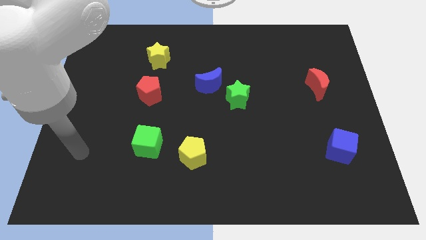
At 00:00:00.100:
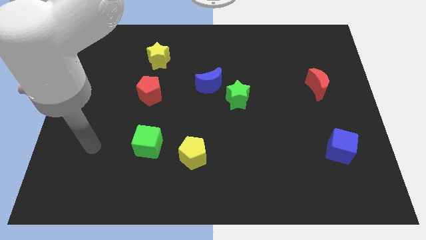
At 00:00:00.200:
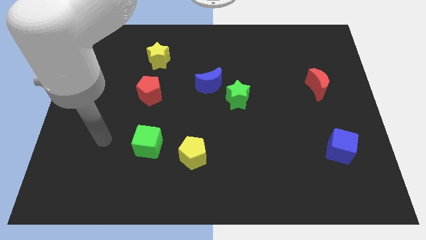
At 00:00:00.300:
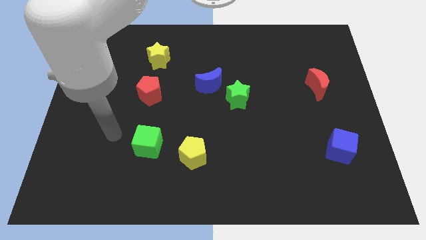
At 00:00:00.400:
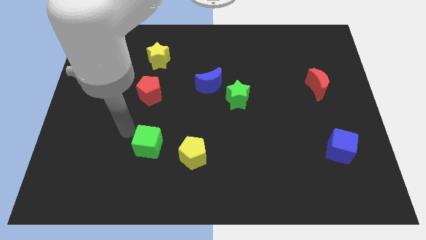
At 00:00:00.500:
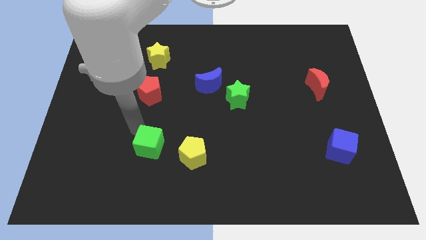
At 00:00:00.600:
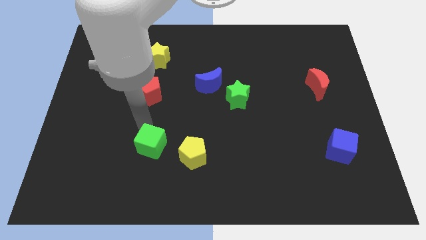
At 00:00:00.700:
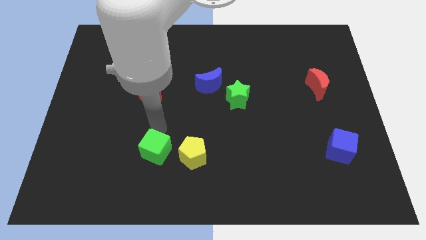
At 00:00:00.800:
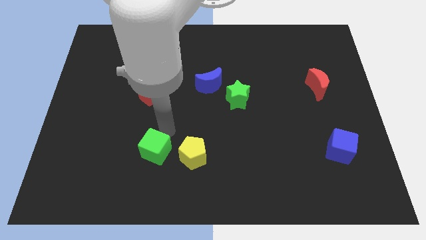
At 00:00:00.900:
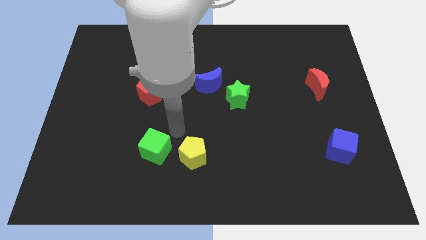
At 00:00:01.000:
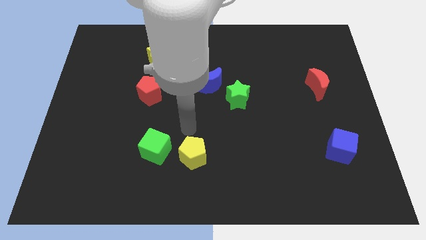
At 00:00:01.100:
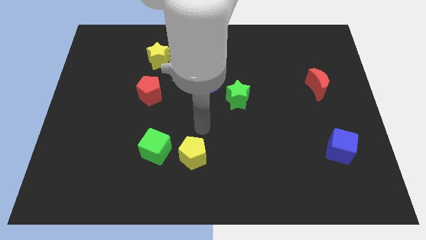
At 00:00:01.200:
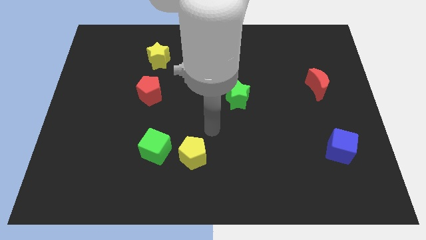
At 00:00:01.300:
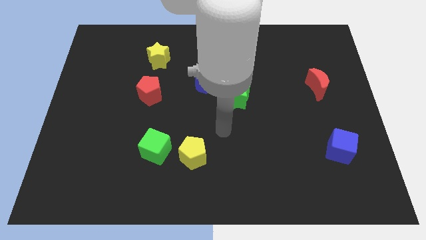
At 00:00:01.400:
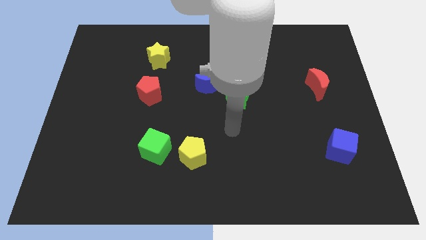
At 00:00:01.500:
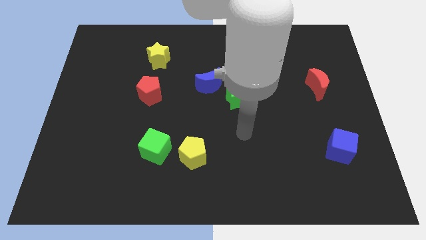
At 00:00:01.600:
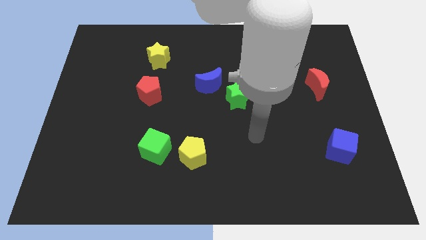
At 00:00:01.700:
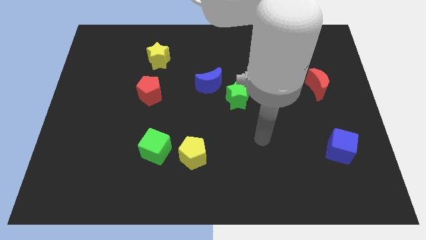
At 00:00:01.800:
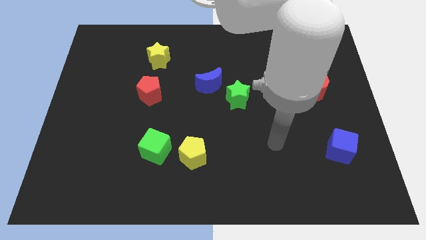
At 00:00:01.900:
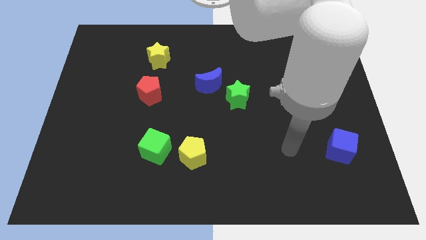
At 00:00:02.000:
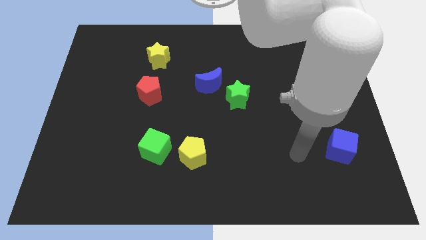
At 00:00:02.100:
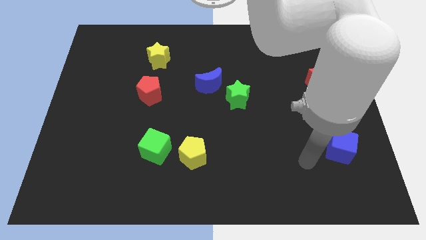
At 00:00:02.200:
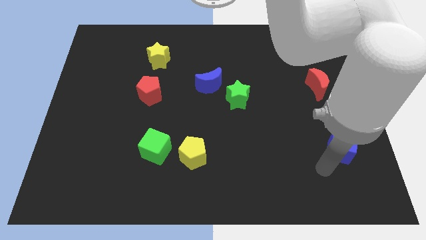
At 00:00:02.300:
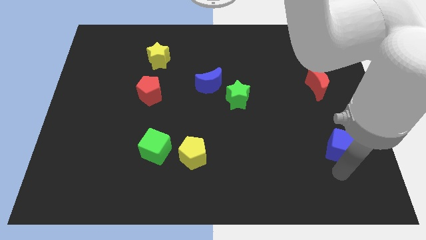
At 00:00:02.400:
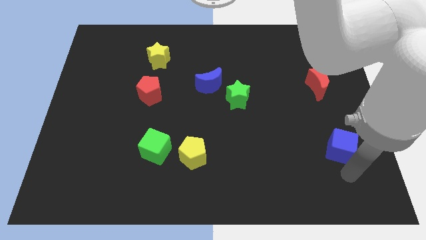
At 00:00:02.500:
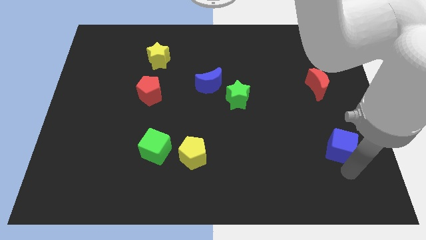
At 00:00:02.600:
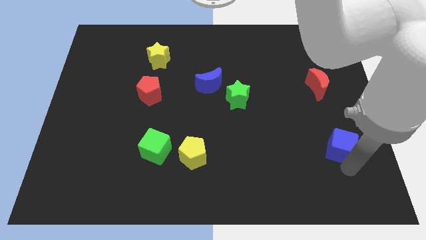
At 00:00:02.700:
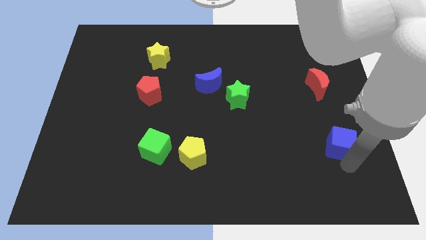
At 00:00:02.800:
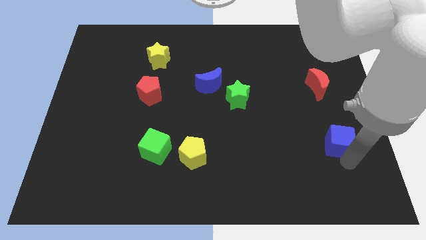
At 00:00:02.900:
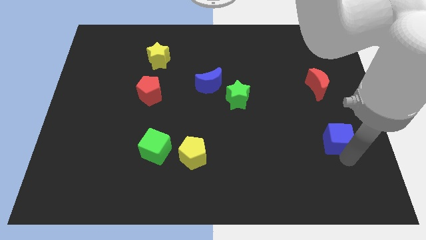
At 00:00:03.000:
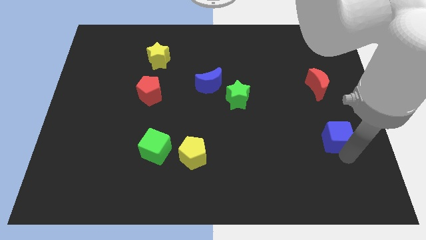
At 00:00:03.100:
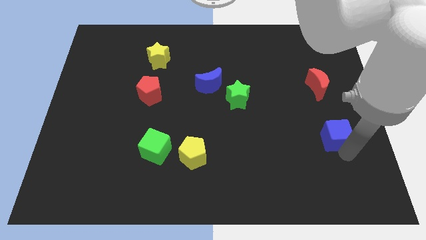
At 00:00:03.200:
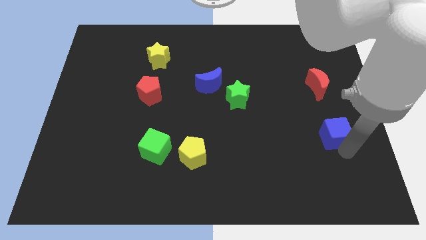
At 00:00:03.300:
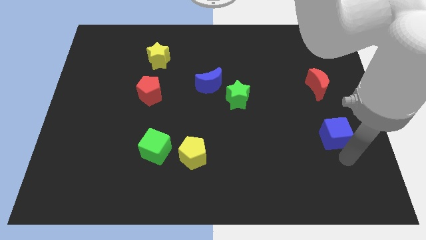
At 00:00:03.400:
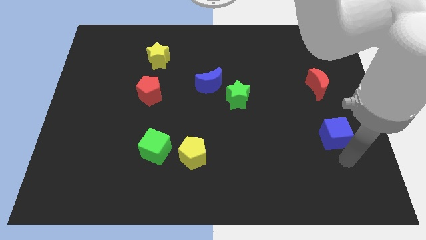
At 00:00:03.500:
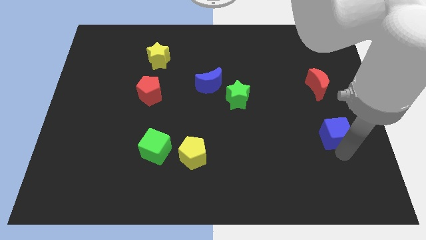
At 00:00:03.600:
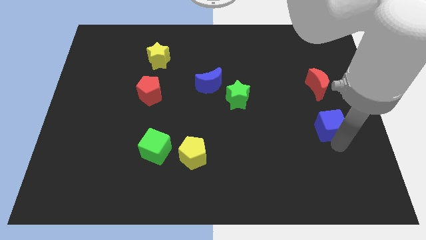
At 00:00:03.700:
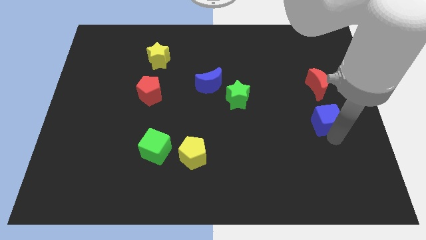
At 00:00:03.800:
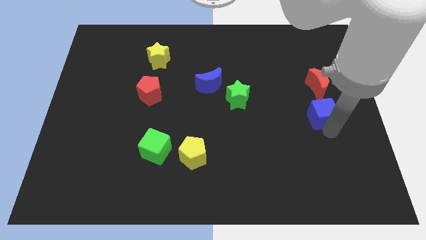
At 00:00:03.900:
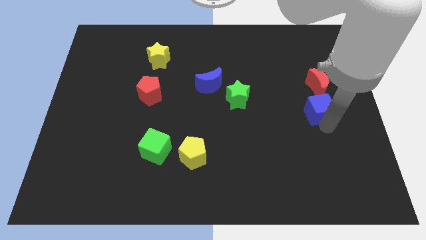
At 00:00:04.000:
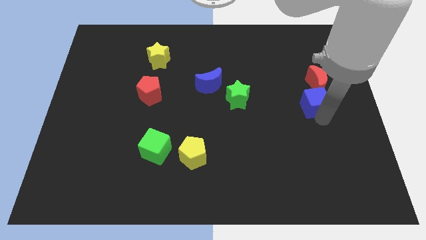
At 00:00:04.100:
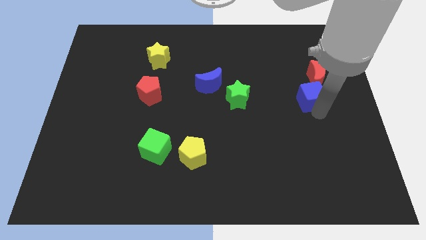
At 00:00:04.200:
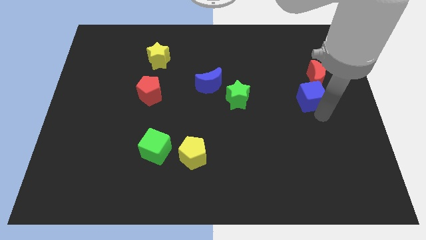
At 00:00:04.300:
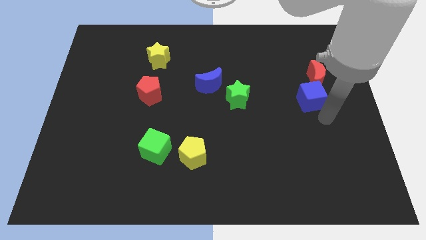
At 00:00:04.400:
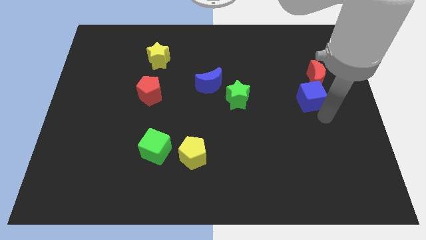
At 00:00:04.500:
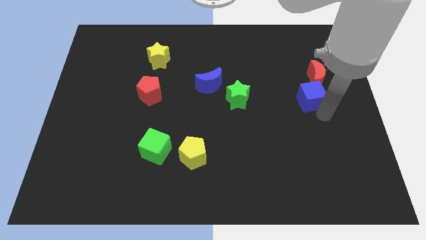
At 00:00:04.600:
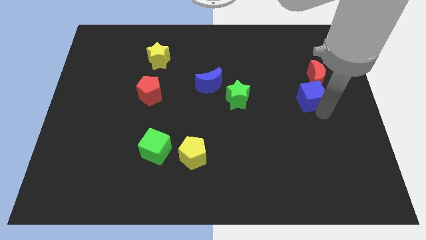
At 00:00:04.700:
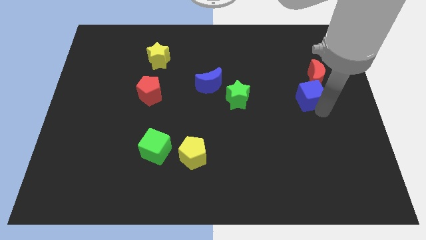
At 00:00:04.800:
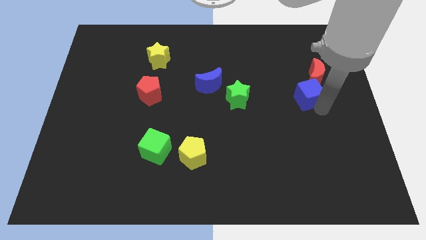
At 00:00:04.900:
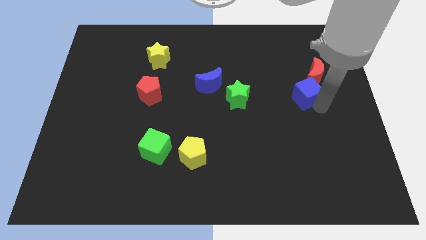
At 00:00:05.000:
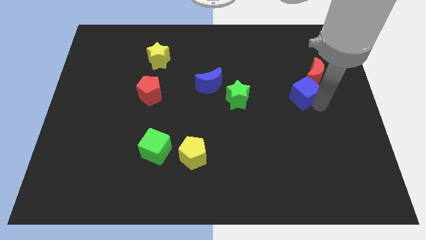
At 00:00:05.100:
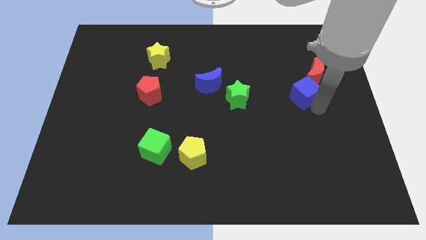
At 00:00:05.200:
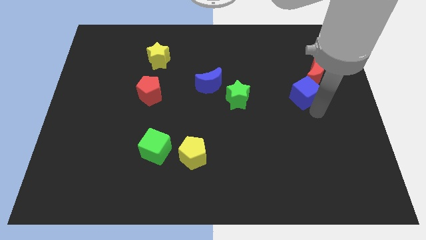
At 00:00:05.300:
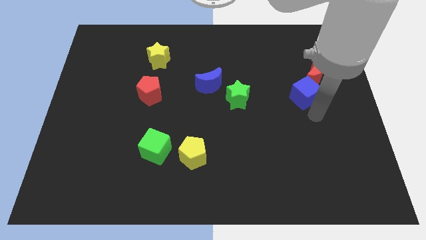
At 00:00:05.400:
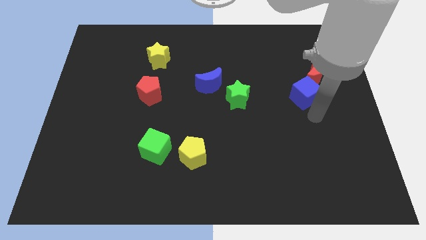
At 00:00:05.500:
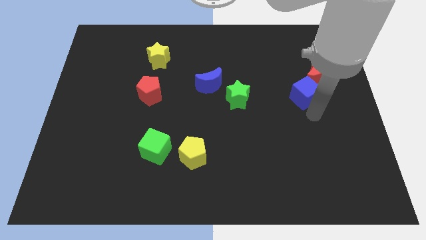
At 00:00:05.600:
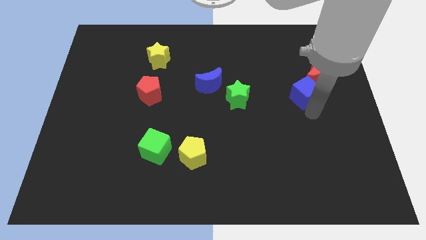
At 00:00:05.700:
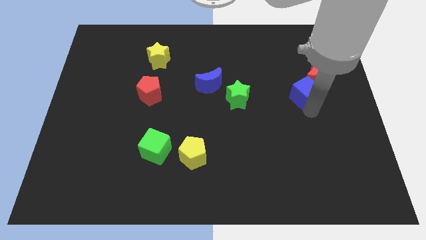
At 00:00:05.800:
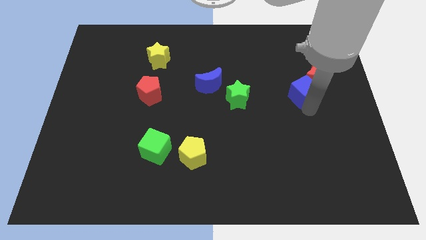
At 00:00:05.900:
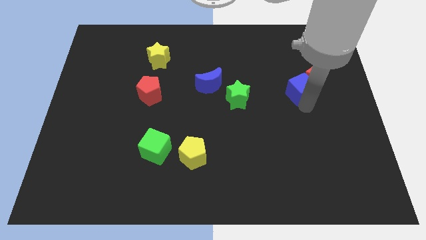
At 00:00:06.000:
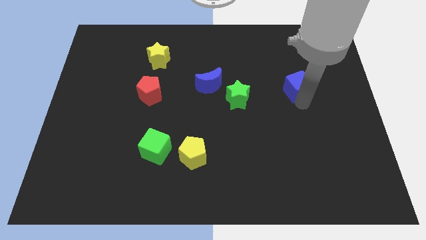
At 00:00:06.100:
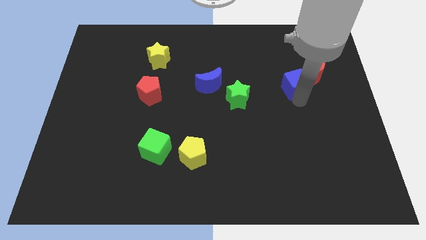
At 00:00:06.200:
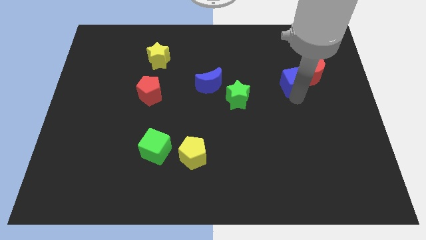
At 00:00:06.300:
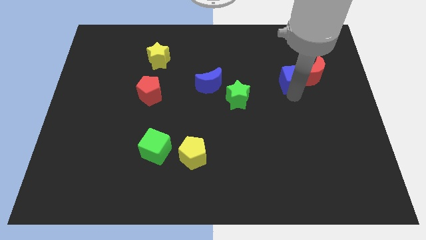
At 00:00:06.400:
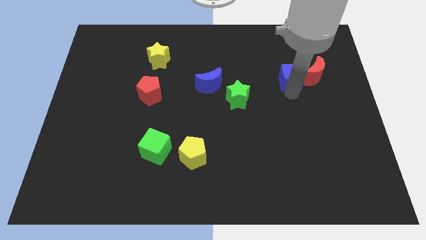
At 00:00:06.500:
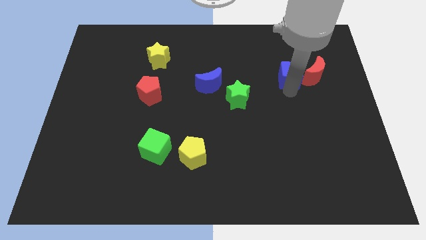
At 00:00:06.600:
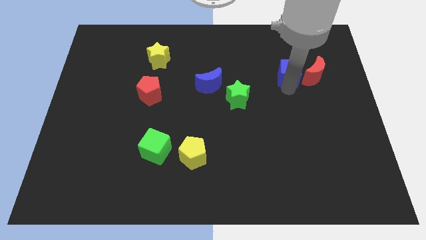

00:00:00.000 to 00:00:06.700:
slide the blue cube diagonally up and to the left of the red moon

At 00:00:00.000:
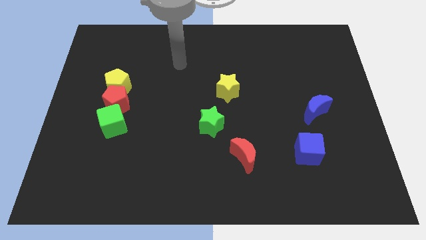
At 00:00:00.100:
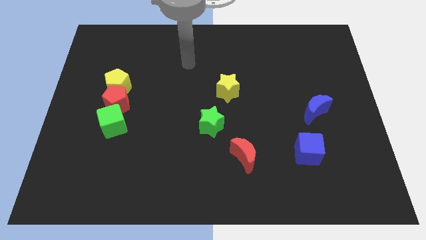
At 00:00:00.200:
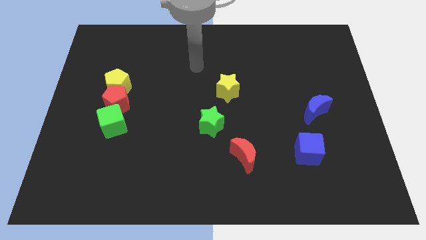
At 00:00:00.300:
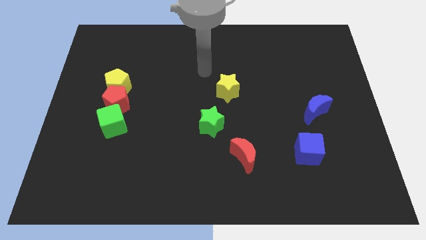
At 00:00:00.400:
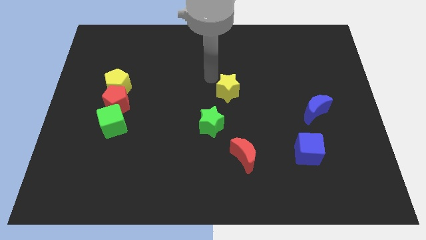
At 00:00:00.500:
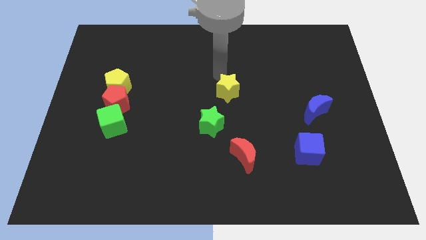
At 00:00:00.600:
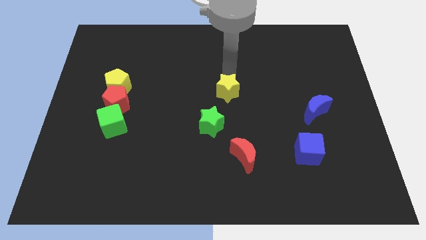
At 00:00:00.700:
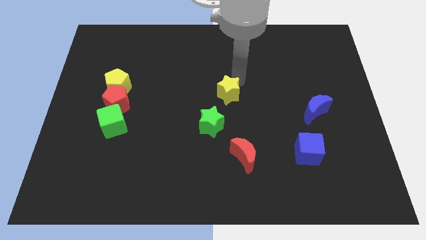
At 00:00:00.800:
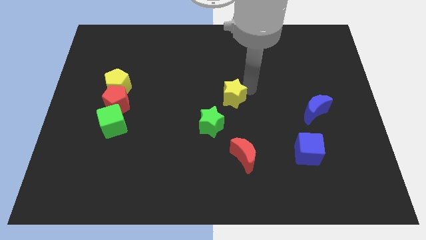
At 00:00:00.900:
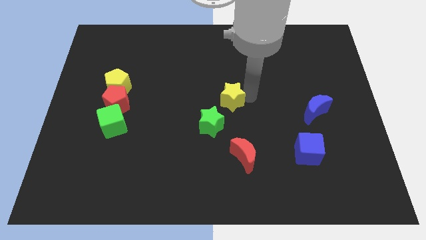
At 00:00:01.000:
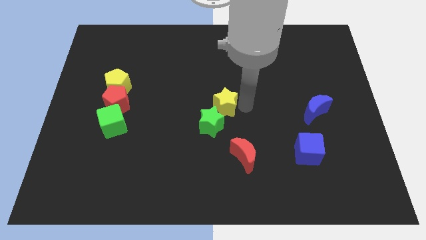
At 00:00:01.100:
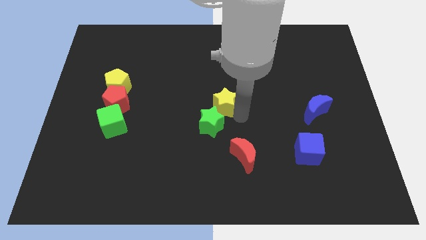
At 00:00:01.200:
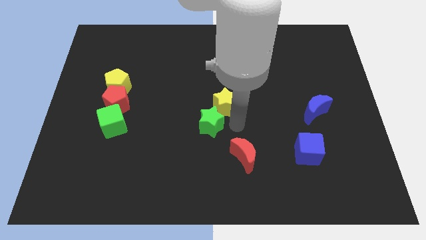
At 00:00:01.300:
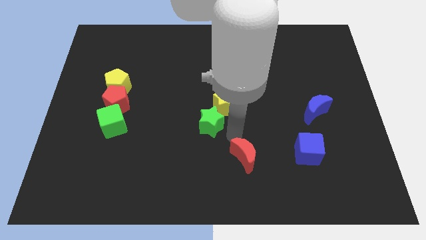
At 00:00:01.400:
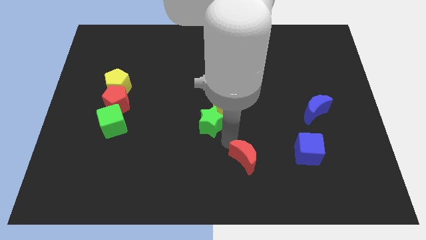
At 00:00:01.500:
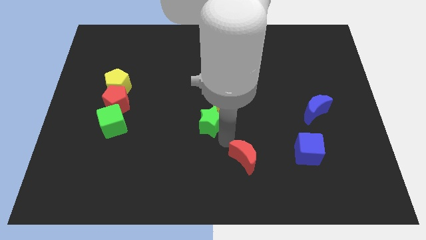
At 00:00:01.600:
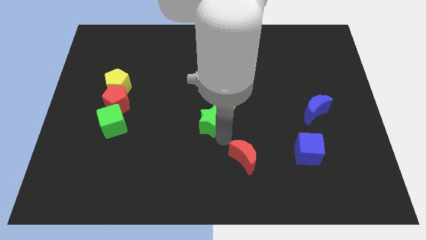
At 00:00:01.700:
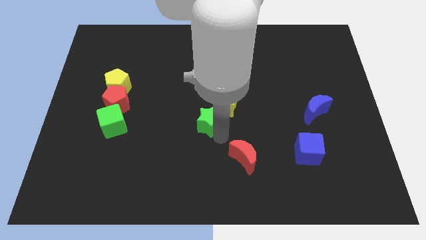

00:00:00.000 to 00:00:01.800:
slide the green star left of the yellow star
